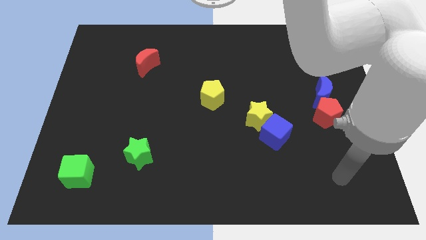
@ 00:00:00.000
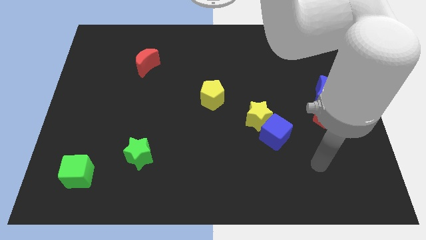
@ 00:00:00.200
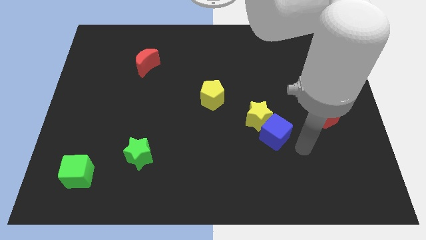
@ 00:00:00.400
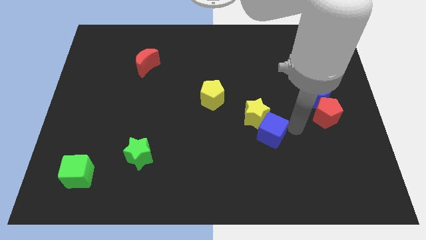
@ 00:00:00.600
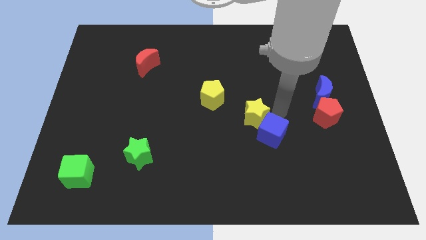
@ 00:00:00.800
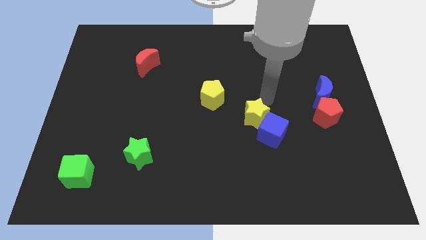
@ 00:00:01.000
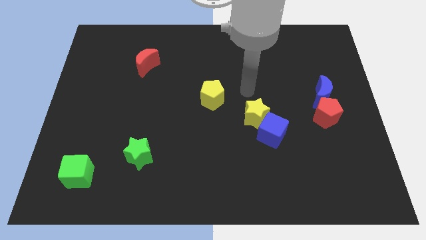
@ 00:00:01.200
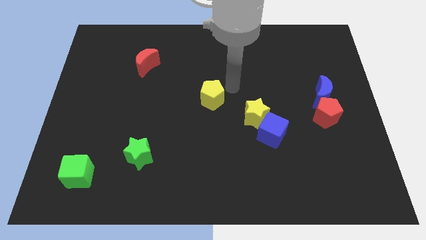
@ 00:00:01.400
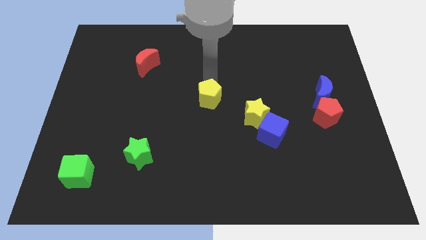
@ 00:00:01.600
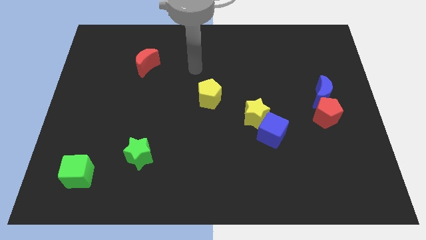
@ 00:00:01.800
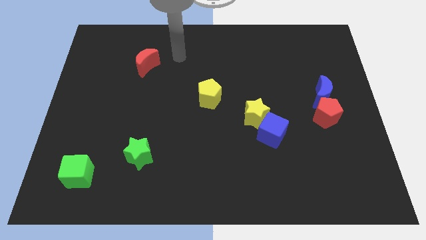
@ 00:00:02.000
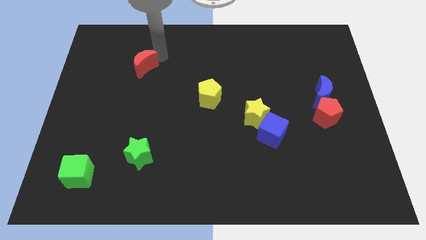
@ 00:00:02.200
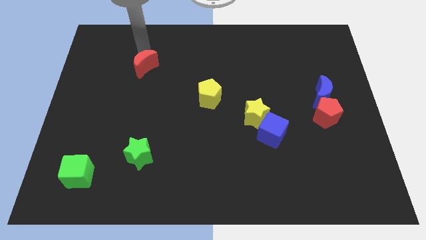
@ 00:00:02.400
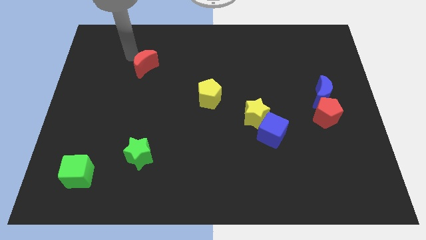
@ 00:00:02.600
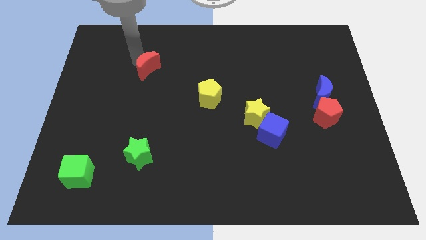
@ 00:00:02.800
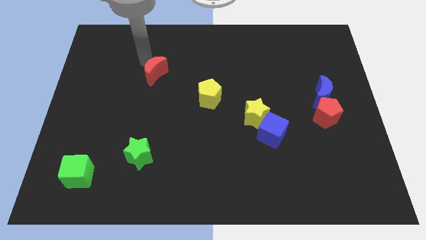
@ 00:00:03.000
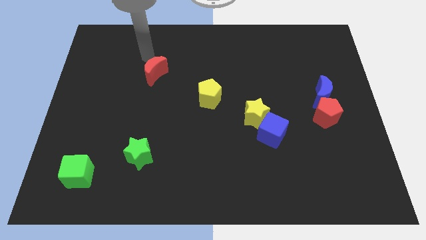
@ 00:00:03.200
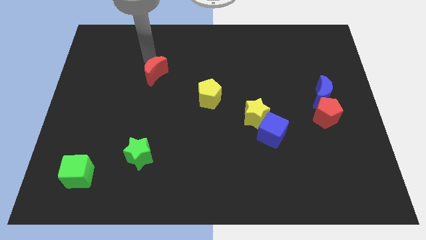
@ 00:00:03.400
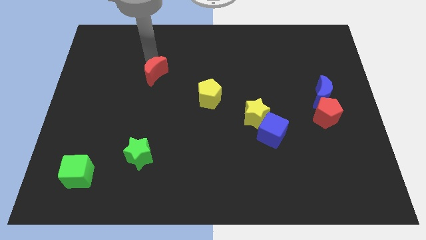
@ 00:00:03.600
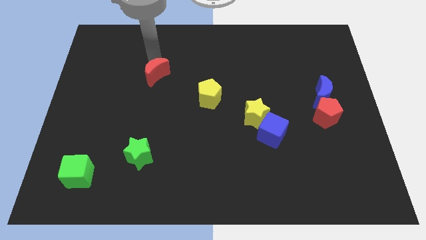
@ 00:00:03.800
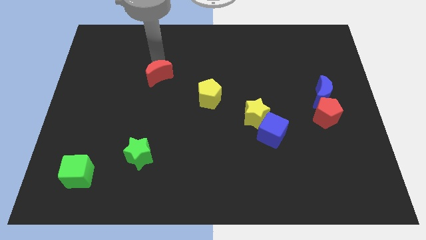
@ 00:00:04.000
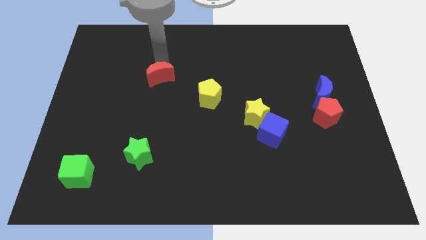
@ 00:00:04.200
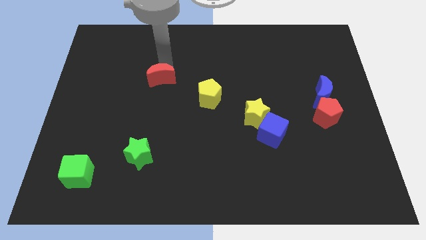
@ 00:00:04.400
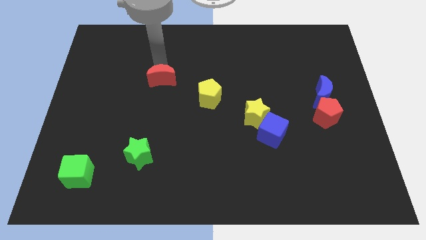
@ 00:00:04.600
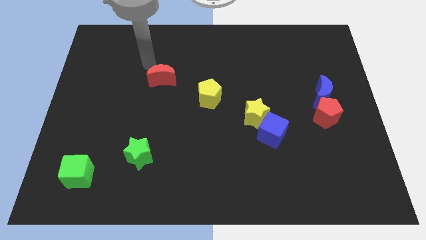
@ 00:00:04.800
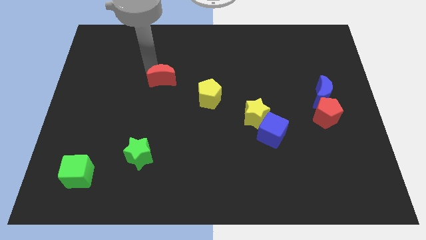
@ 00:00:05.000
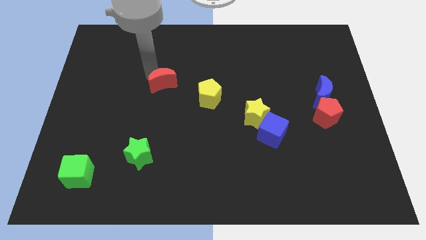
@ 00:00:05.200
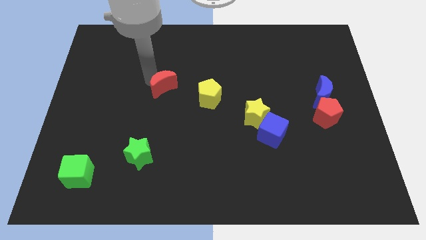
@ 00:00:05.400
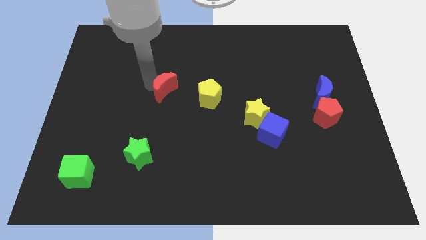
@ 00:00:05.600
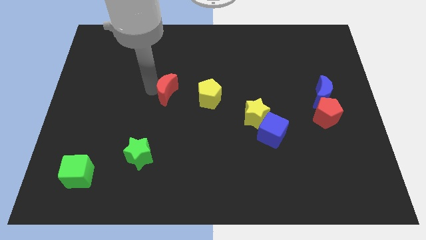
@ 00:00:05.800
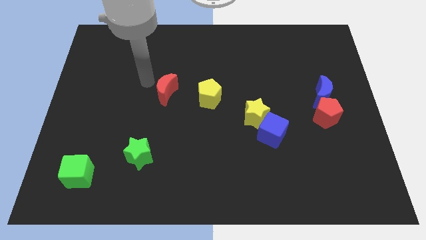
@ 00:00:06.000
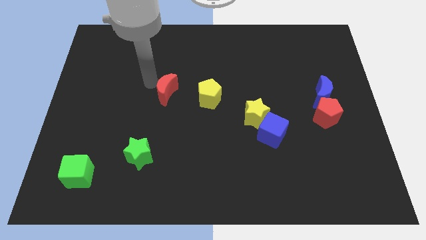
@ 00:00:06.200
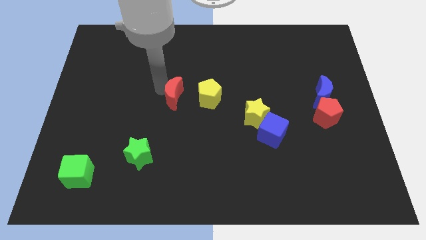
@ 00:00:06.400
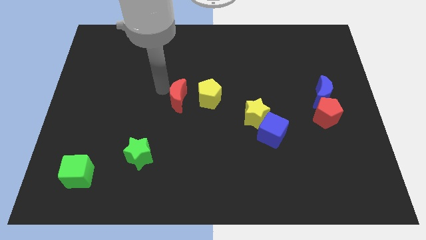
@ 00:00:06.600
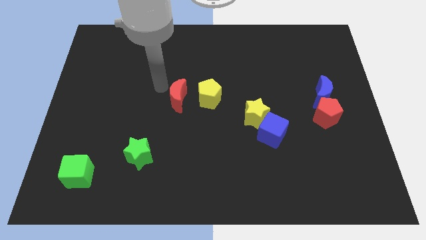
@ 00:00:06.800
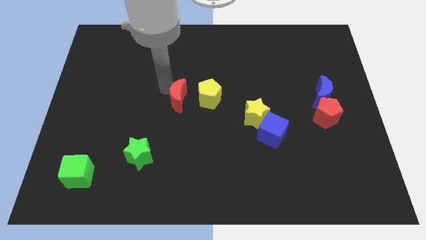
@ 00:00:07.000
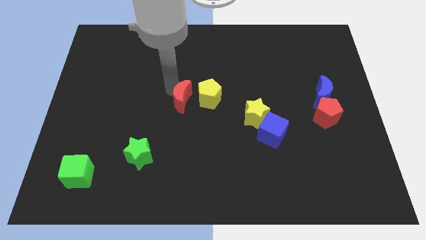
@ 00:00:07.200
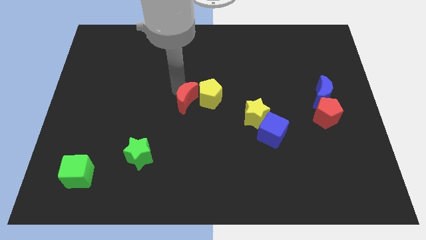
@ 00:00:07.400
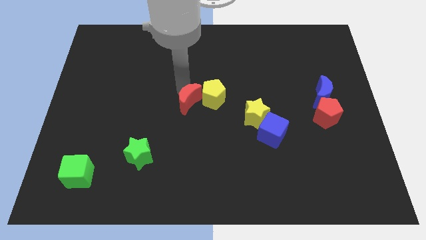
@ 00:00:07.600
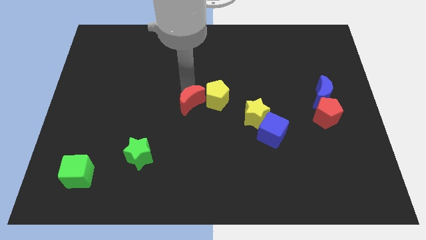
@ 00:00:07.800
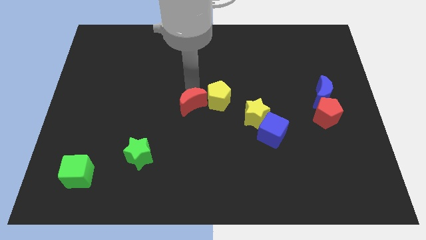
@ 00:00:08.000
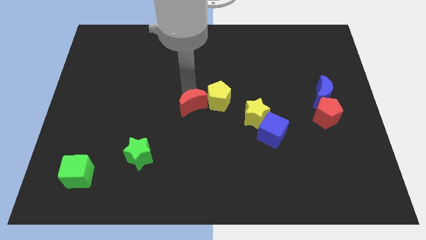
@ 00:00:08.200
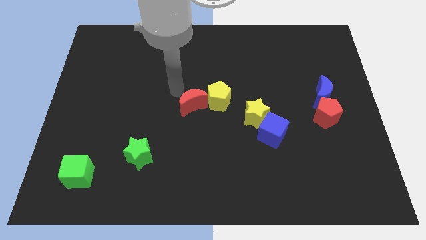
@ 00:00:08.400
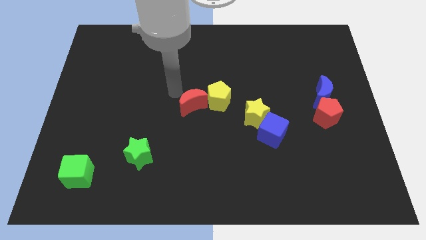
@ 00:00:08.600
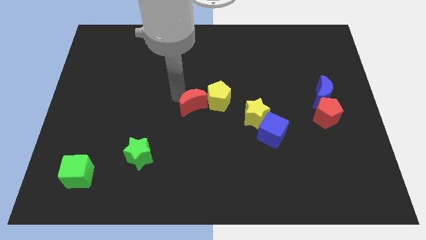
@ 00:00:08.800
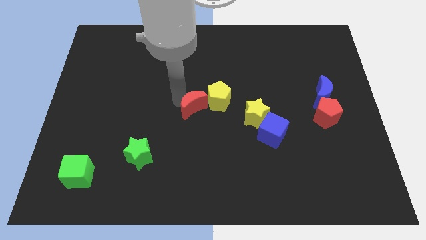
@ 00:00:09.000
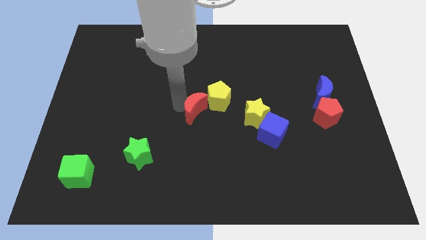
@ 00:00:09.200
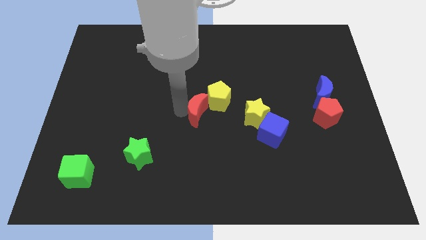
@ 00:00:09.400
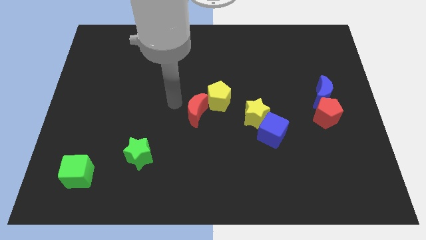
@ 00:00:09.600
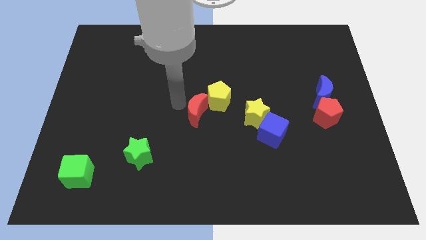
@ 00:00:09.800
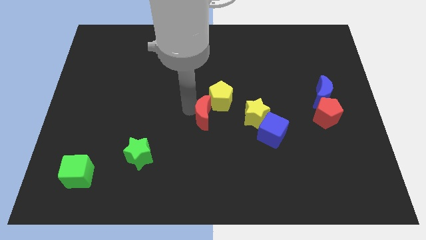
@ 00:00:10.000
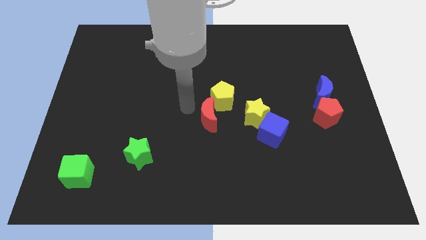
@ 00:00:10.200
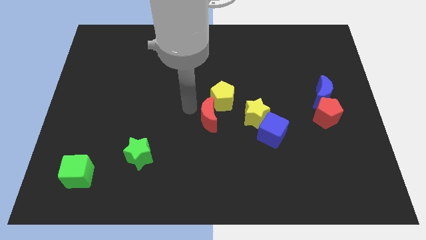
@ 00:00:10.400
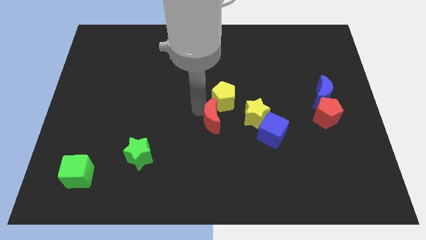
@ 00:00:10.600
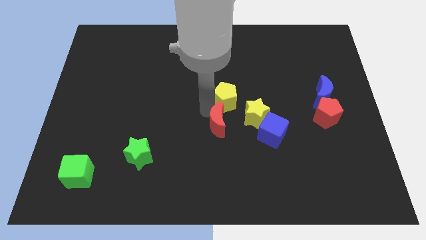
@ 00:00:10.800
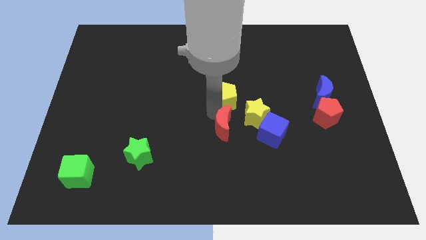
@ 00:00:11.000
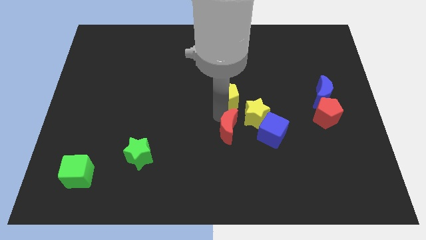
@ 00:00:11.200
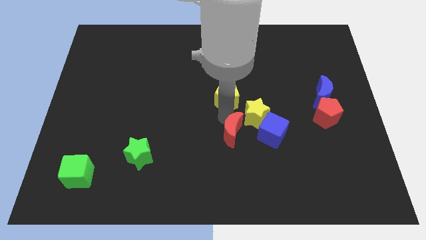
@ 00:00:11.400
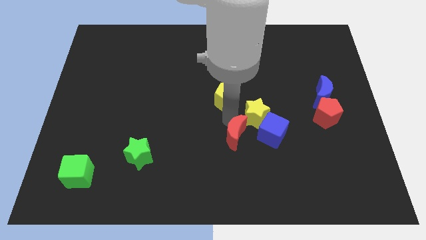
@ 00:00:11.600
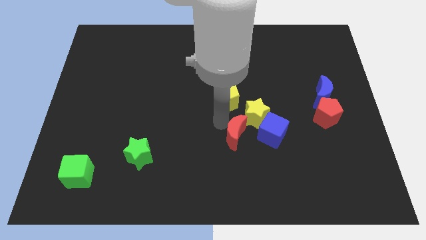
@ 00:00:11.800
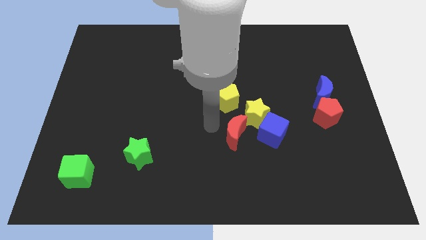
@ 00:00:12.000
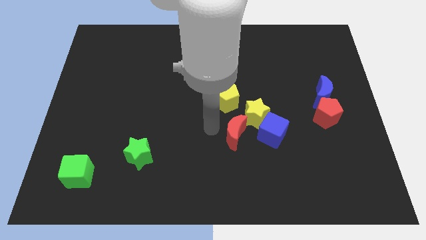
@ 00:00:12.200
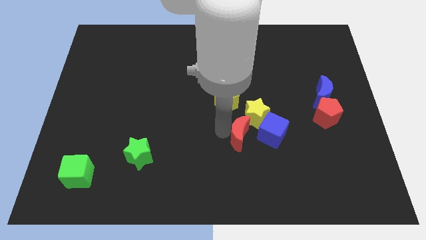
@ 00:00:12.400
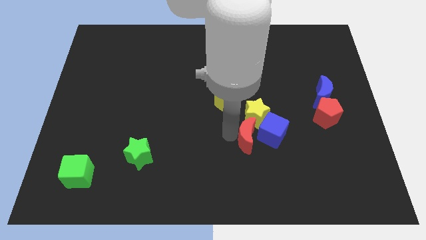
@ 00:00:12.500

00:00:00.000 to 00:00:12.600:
push the red moon next to the blue cube
